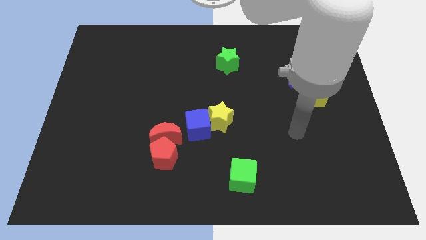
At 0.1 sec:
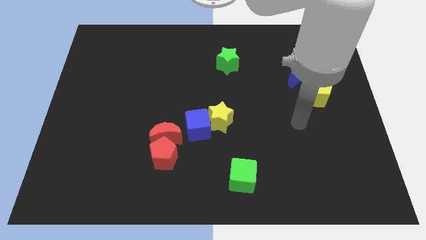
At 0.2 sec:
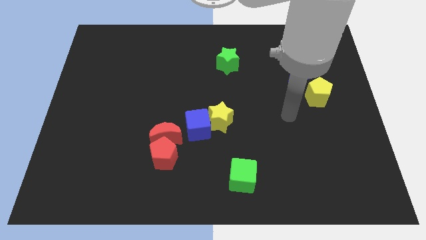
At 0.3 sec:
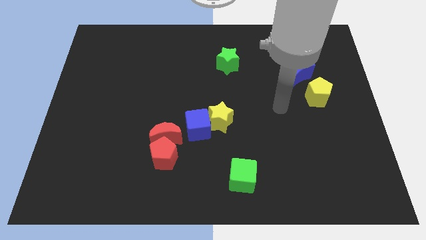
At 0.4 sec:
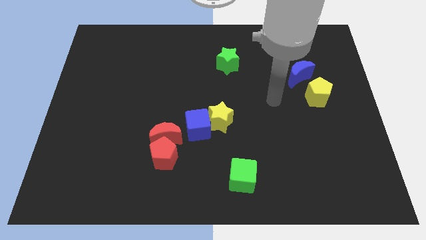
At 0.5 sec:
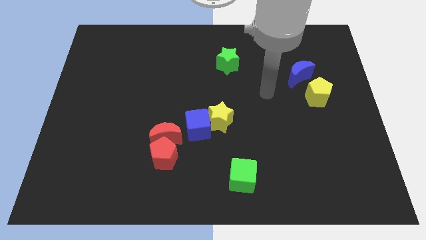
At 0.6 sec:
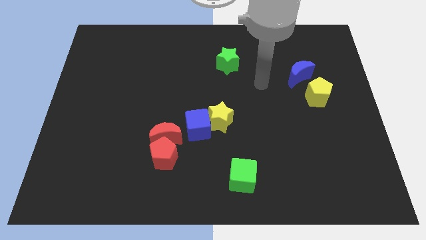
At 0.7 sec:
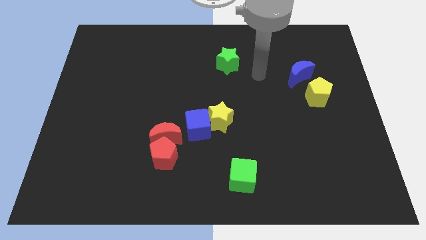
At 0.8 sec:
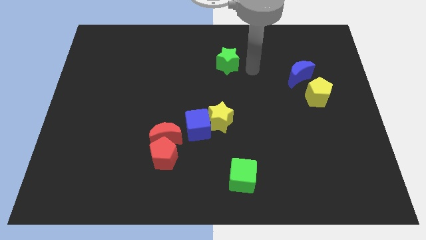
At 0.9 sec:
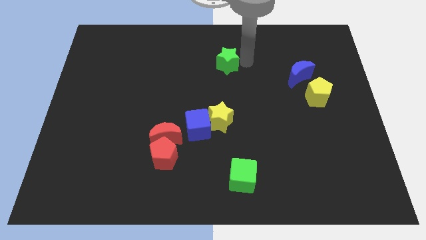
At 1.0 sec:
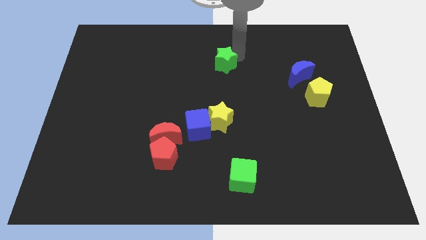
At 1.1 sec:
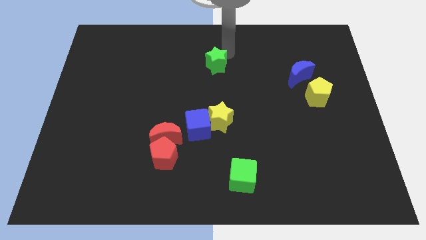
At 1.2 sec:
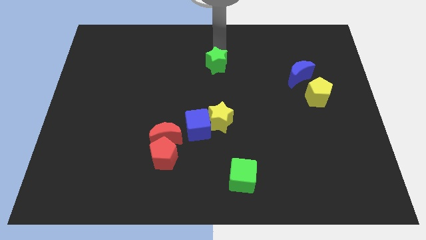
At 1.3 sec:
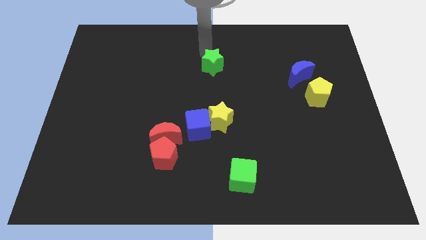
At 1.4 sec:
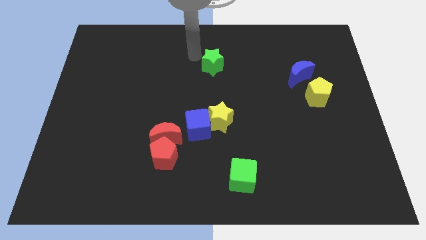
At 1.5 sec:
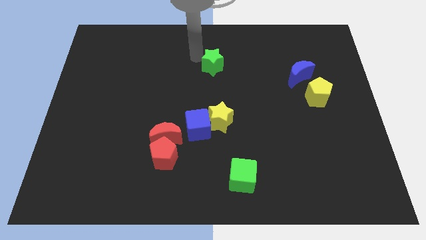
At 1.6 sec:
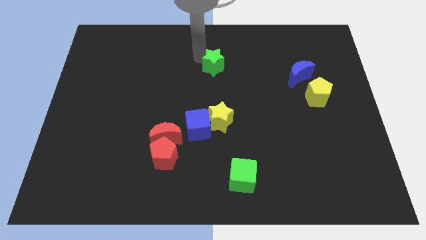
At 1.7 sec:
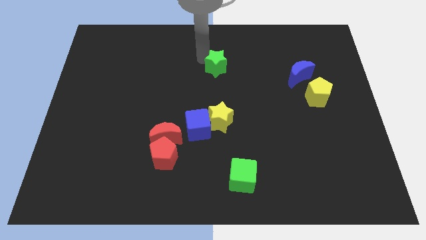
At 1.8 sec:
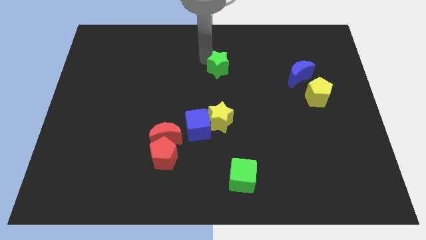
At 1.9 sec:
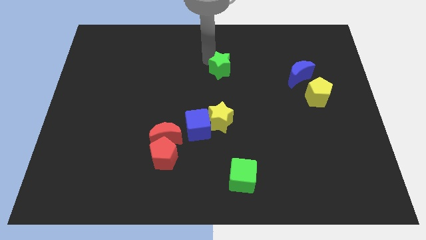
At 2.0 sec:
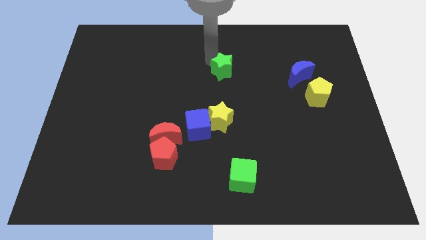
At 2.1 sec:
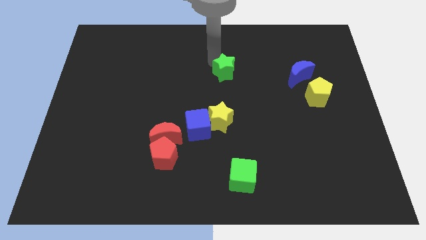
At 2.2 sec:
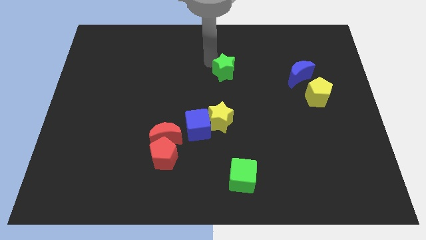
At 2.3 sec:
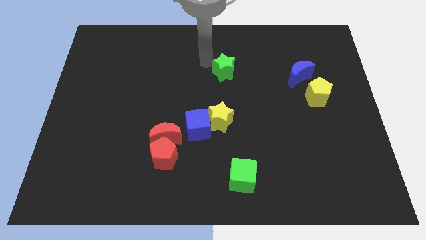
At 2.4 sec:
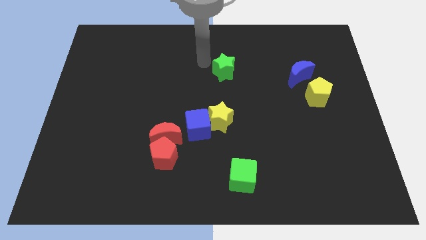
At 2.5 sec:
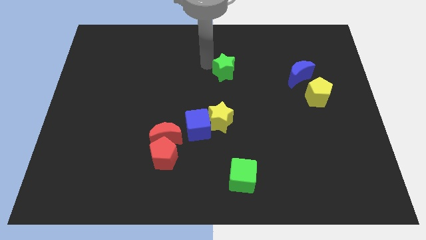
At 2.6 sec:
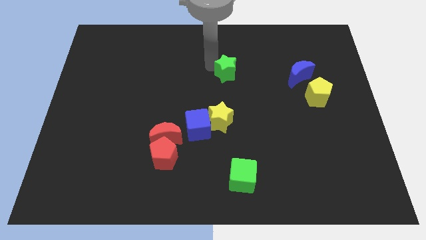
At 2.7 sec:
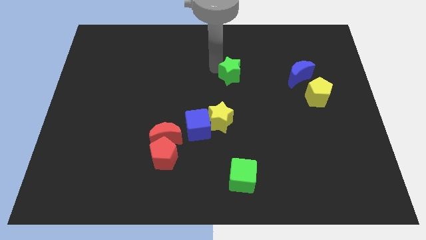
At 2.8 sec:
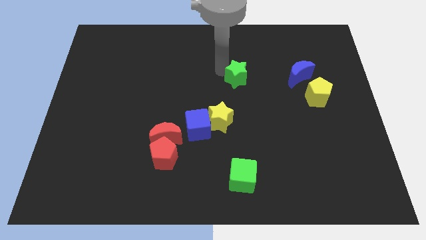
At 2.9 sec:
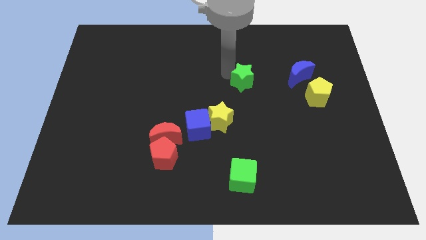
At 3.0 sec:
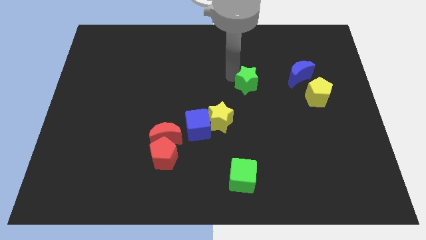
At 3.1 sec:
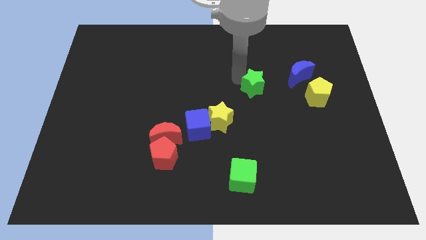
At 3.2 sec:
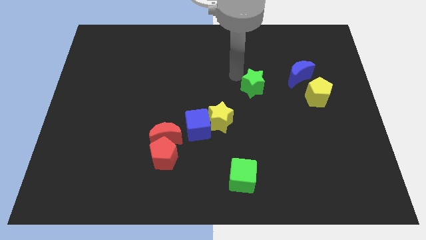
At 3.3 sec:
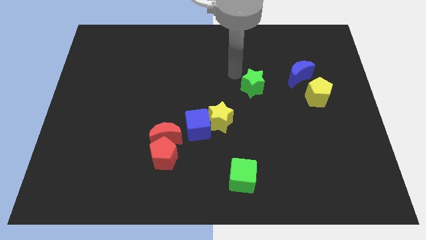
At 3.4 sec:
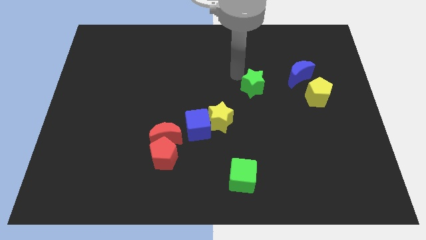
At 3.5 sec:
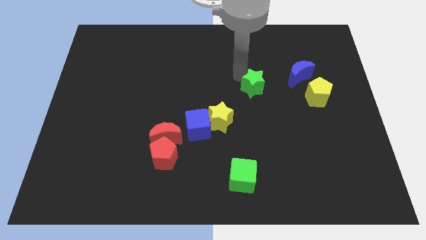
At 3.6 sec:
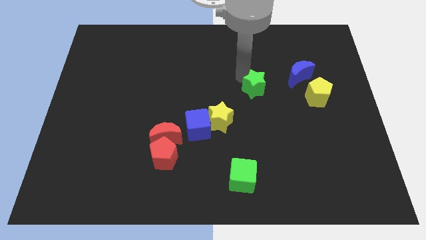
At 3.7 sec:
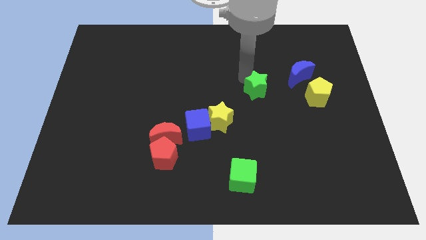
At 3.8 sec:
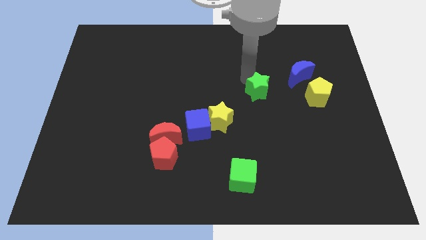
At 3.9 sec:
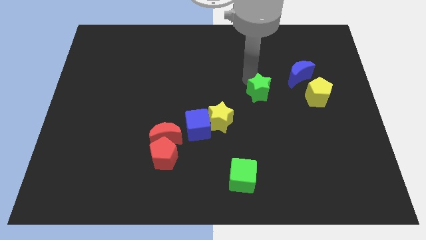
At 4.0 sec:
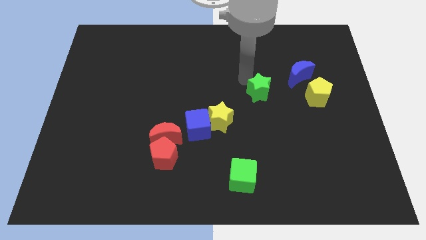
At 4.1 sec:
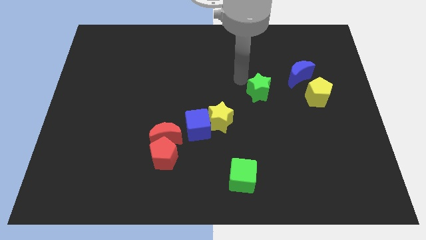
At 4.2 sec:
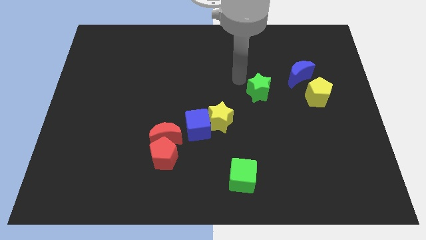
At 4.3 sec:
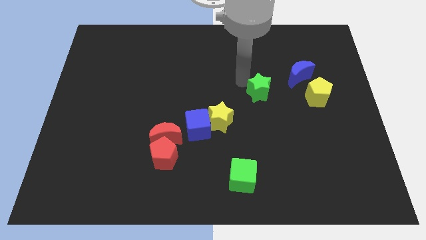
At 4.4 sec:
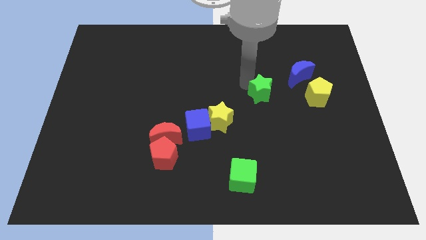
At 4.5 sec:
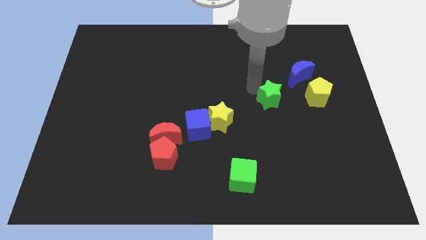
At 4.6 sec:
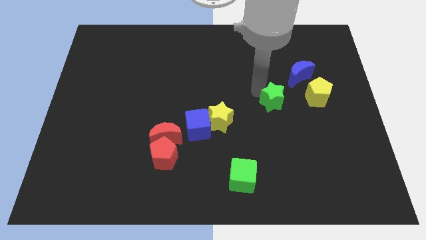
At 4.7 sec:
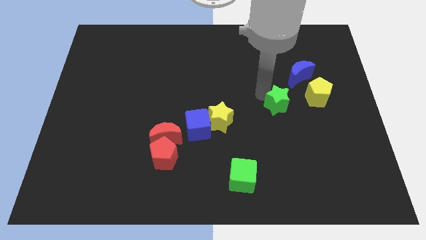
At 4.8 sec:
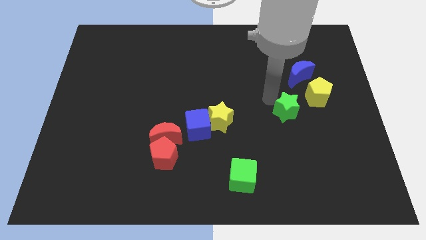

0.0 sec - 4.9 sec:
push the green star downwards and right

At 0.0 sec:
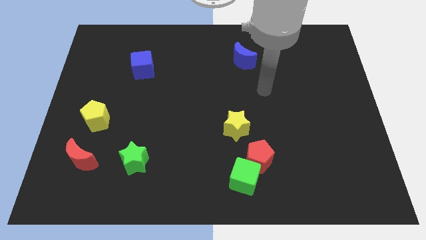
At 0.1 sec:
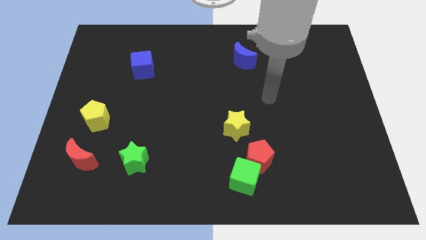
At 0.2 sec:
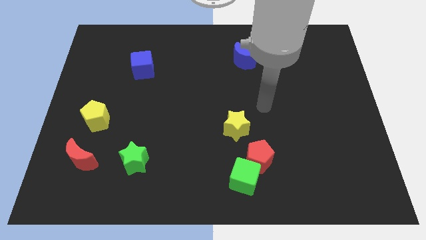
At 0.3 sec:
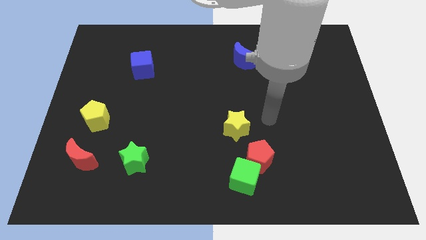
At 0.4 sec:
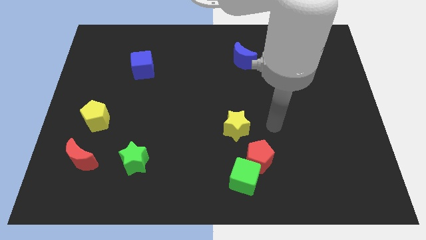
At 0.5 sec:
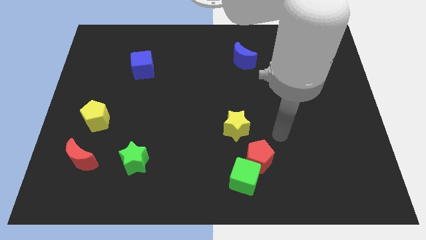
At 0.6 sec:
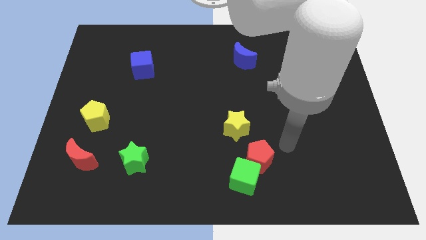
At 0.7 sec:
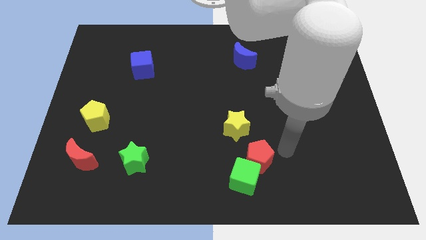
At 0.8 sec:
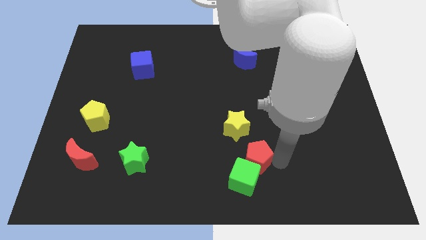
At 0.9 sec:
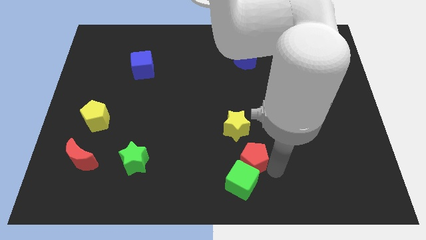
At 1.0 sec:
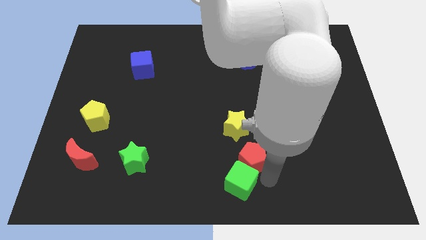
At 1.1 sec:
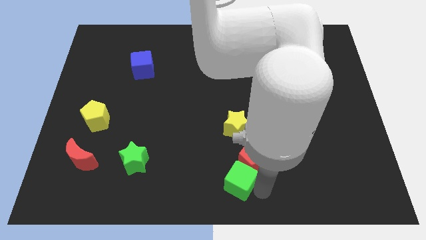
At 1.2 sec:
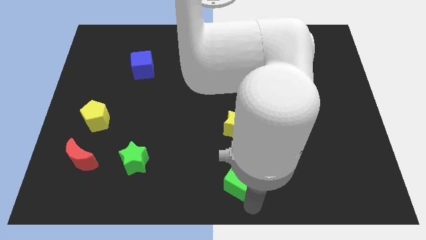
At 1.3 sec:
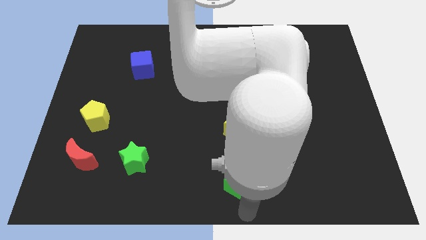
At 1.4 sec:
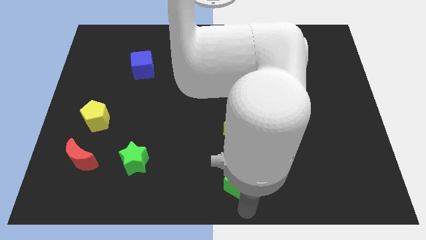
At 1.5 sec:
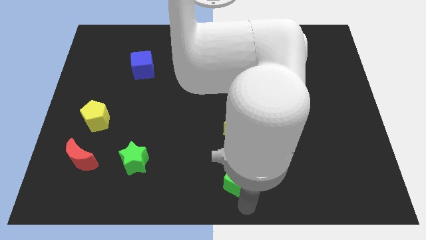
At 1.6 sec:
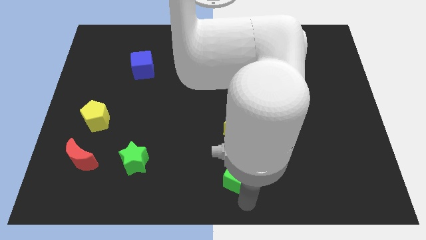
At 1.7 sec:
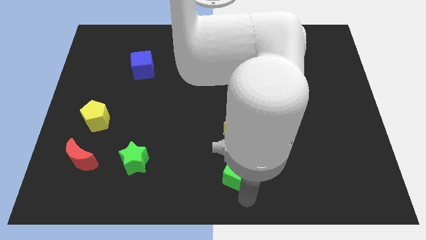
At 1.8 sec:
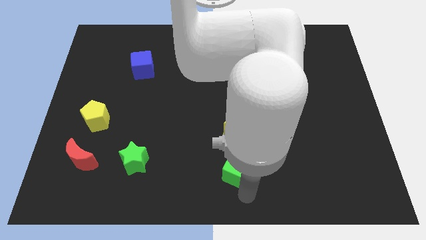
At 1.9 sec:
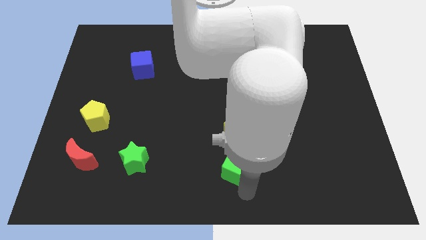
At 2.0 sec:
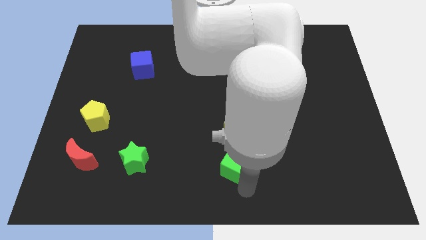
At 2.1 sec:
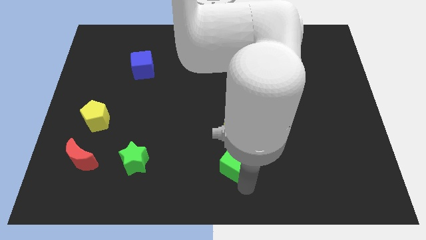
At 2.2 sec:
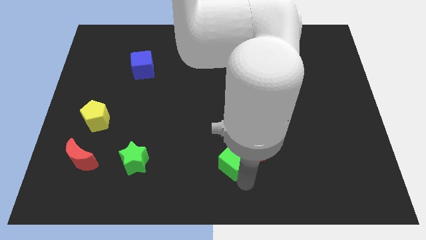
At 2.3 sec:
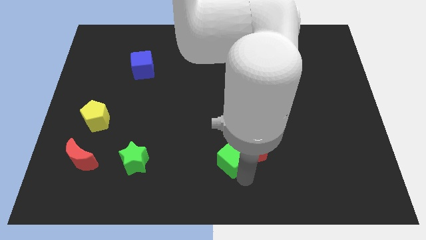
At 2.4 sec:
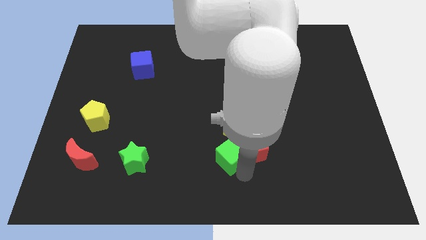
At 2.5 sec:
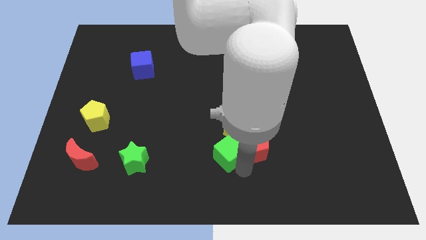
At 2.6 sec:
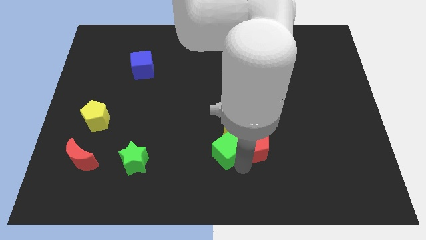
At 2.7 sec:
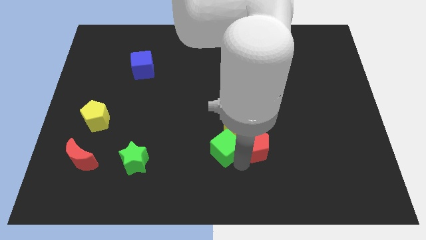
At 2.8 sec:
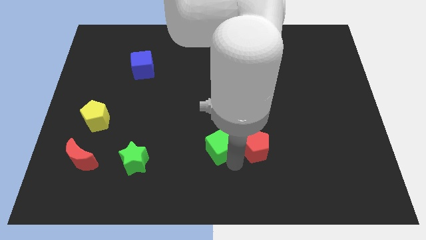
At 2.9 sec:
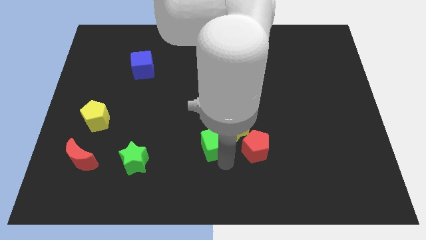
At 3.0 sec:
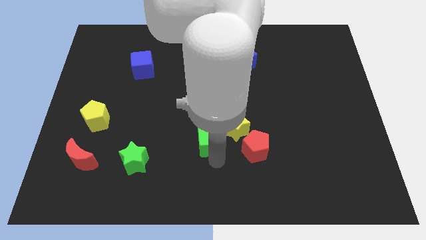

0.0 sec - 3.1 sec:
slide the green cube slightly up
